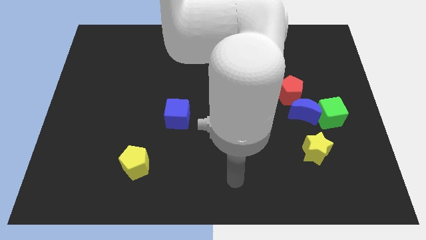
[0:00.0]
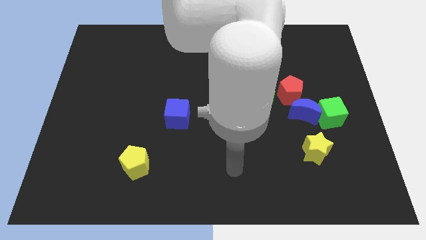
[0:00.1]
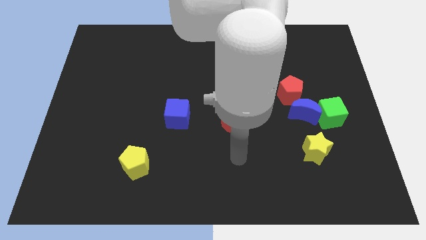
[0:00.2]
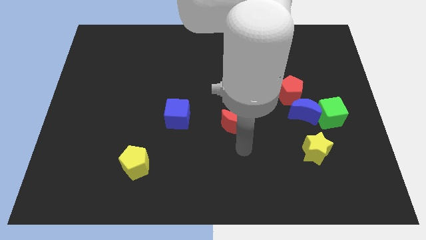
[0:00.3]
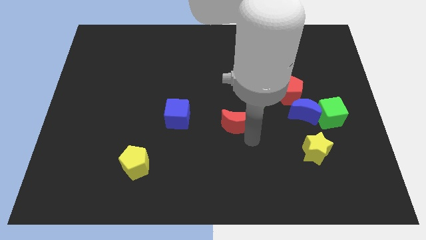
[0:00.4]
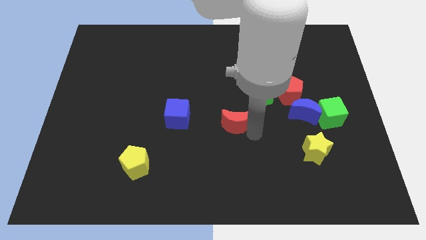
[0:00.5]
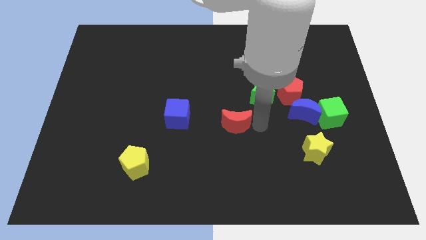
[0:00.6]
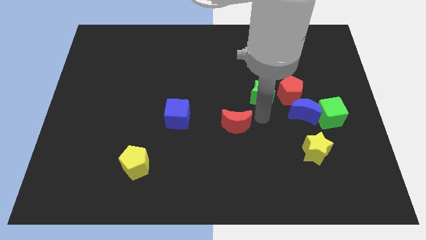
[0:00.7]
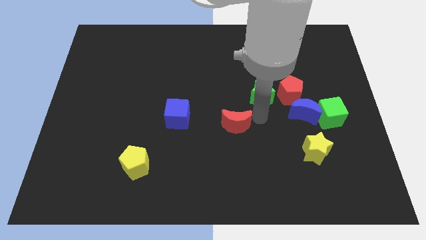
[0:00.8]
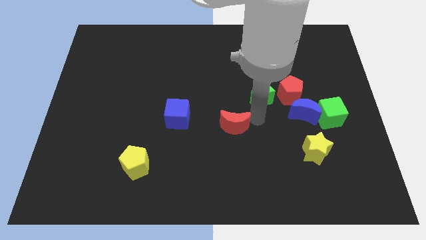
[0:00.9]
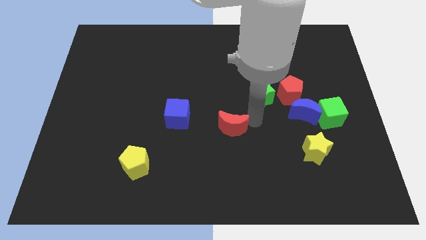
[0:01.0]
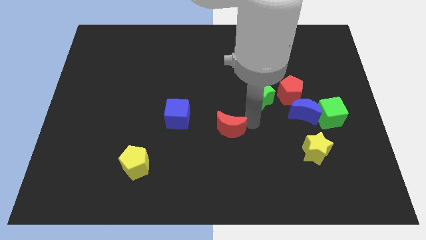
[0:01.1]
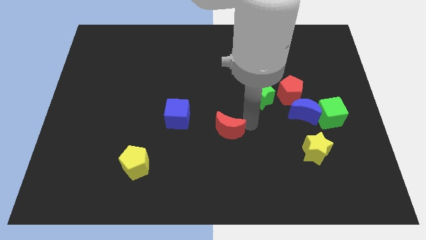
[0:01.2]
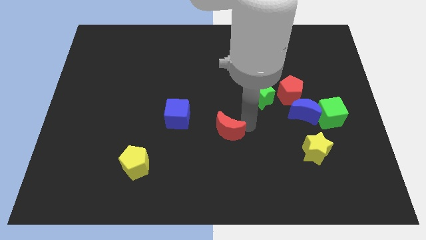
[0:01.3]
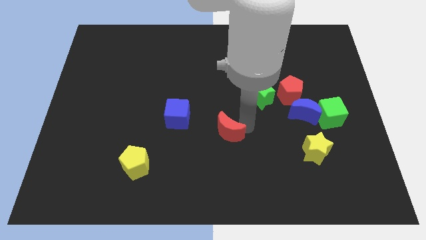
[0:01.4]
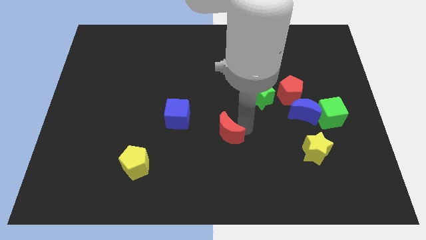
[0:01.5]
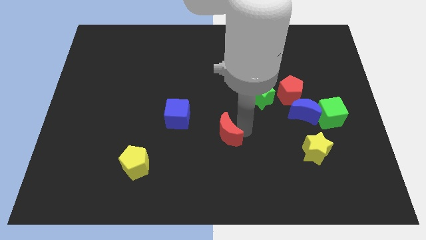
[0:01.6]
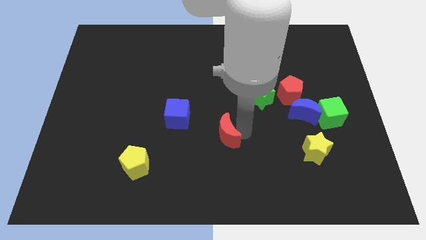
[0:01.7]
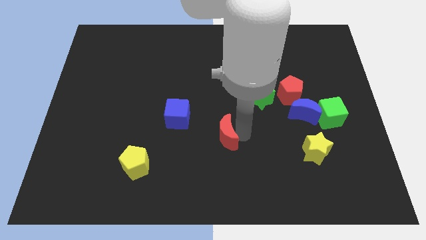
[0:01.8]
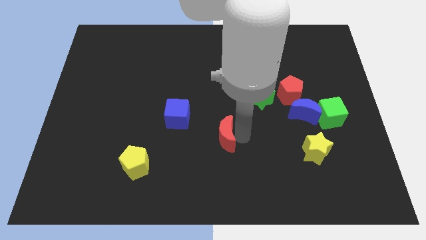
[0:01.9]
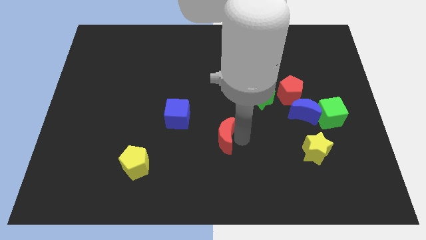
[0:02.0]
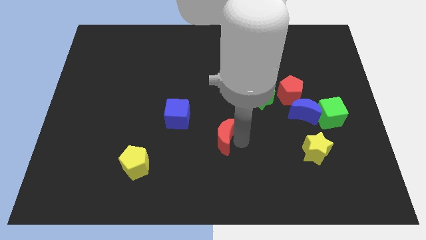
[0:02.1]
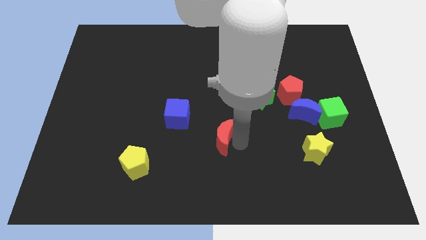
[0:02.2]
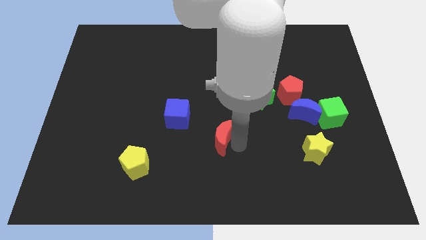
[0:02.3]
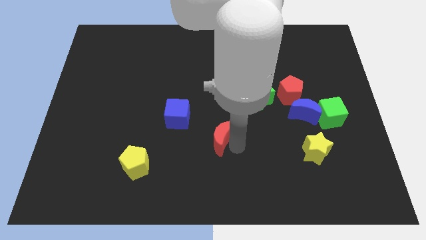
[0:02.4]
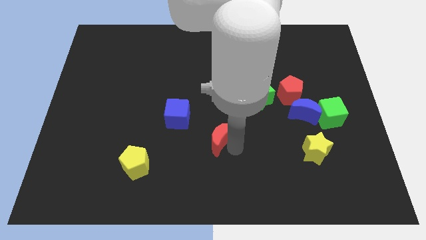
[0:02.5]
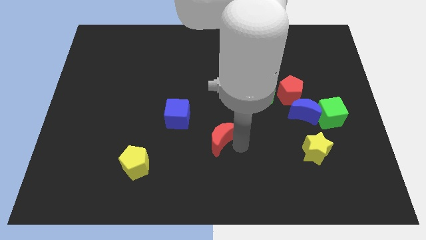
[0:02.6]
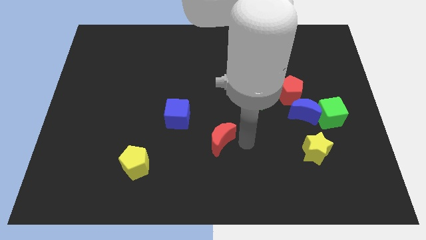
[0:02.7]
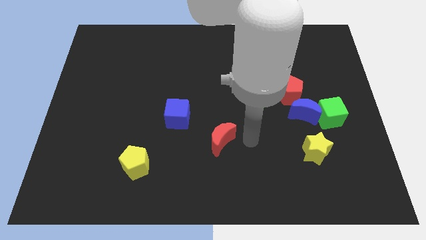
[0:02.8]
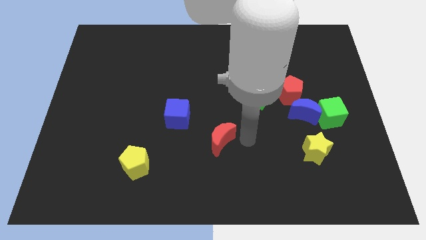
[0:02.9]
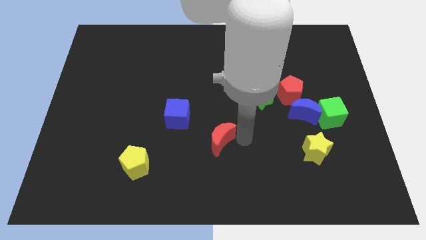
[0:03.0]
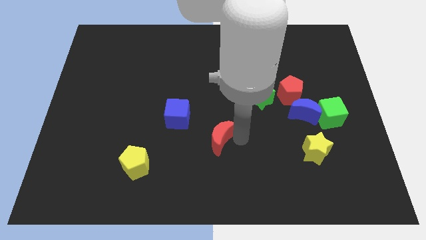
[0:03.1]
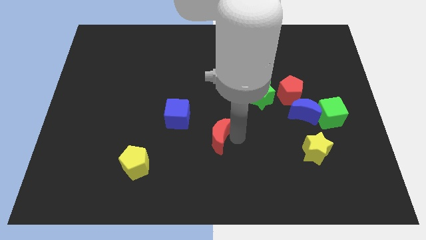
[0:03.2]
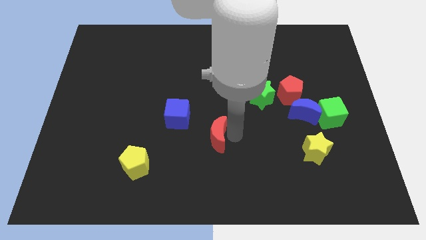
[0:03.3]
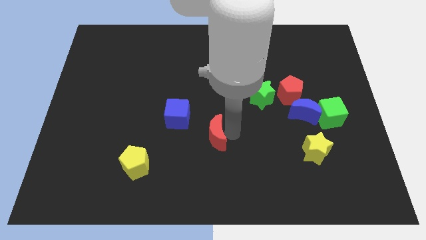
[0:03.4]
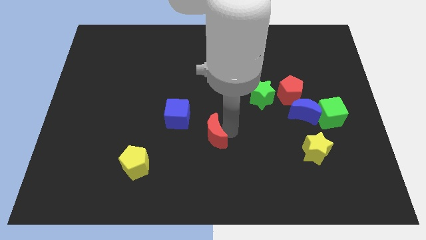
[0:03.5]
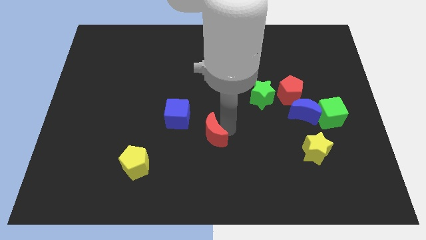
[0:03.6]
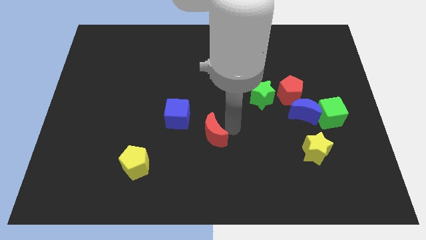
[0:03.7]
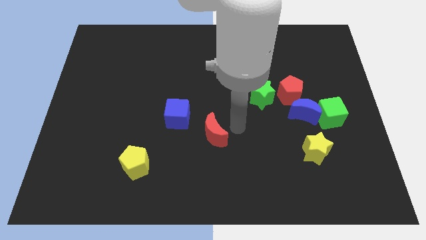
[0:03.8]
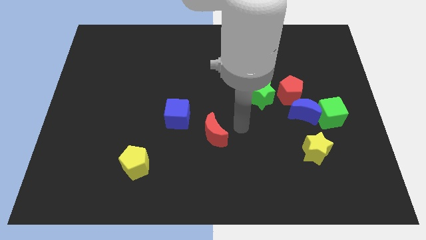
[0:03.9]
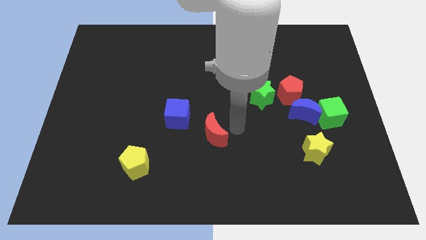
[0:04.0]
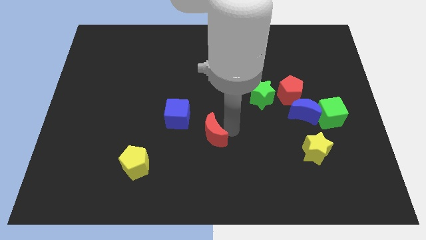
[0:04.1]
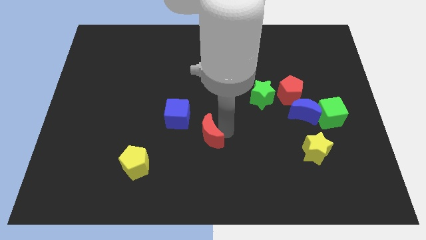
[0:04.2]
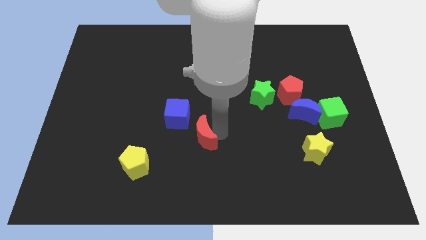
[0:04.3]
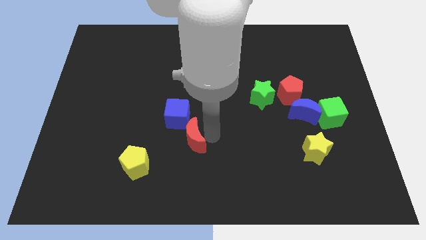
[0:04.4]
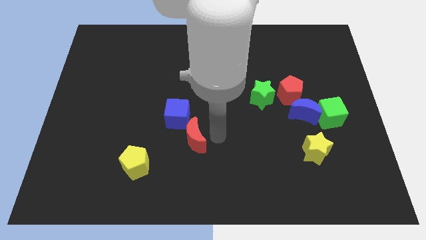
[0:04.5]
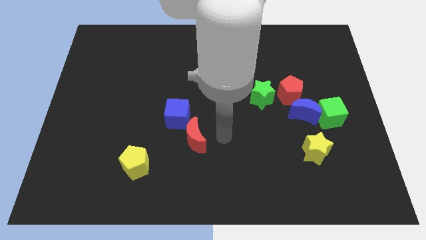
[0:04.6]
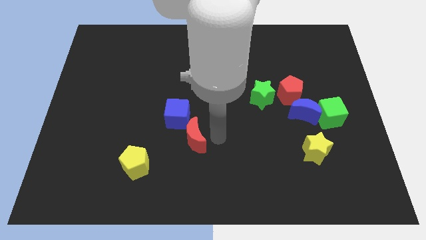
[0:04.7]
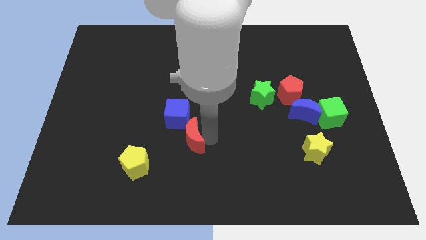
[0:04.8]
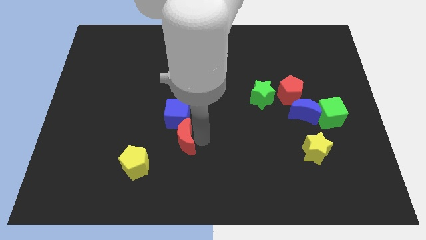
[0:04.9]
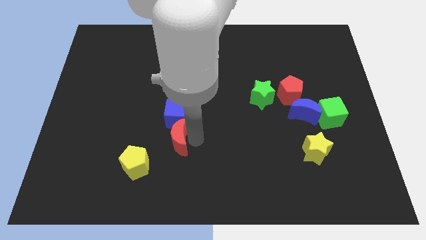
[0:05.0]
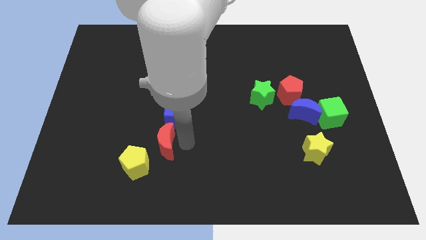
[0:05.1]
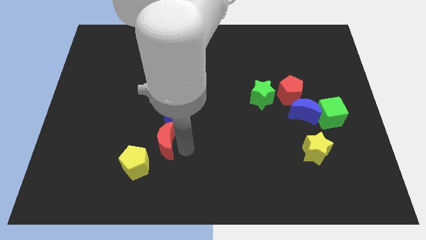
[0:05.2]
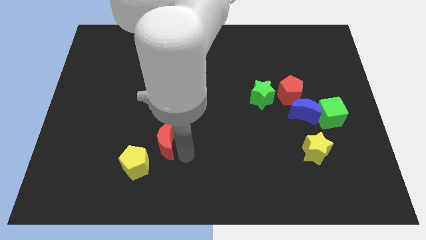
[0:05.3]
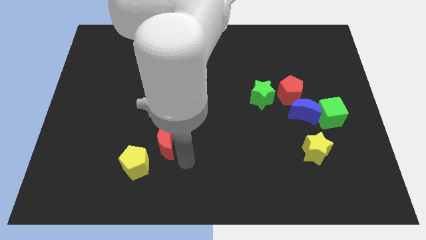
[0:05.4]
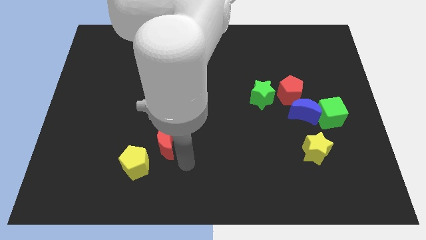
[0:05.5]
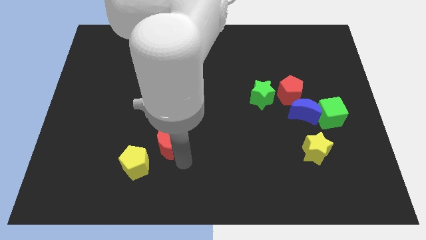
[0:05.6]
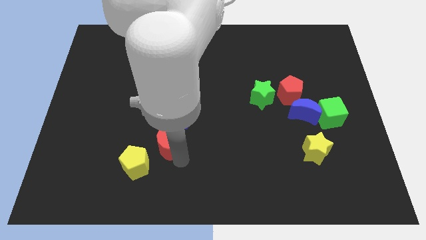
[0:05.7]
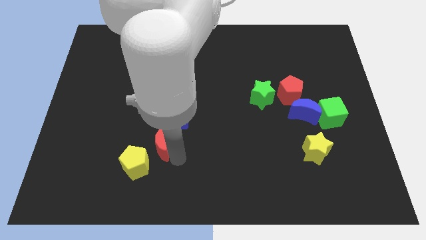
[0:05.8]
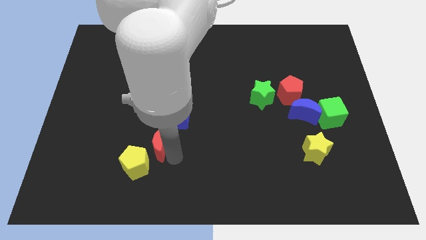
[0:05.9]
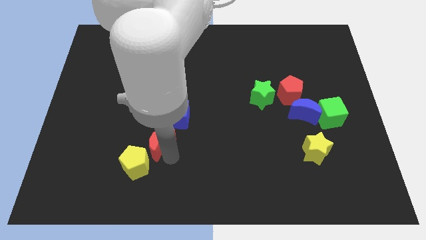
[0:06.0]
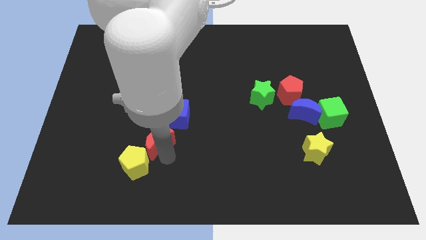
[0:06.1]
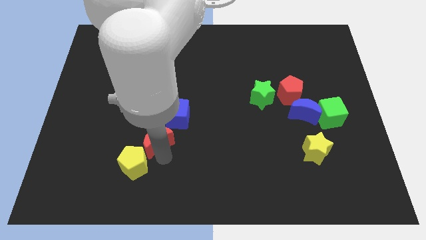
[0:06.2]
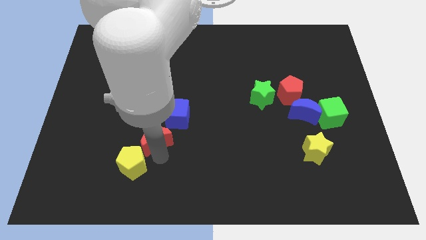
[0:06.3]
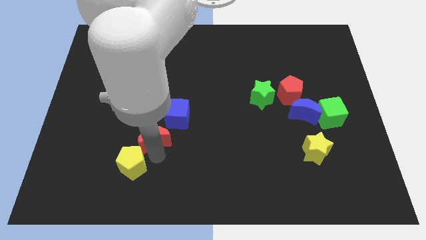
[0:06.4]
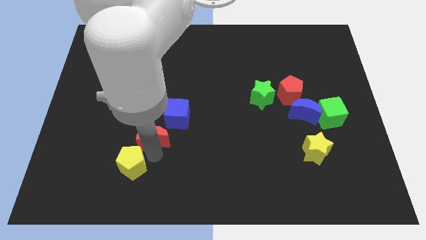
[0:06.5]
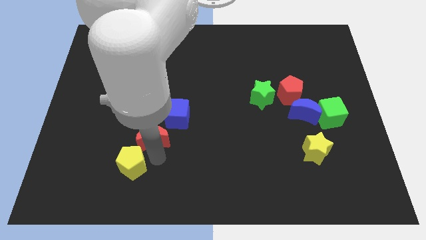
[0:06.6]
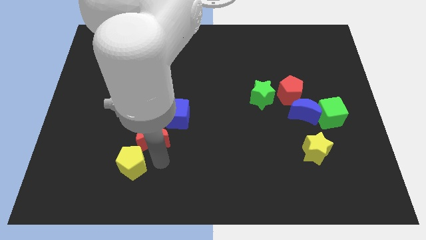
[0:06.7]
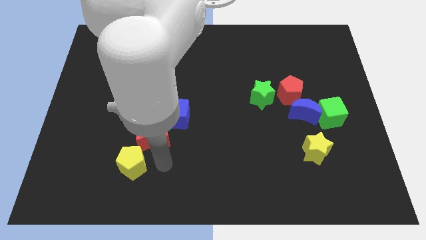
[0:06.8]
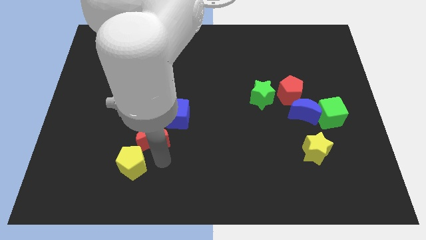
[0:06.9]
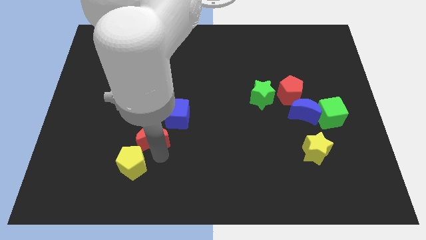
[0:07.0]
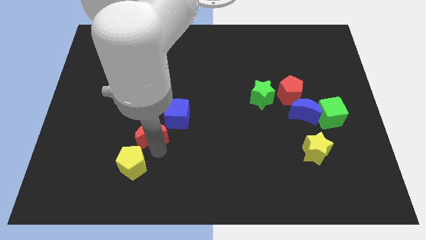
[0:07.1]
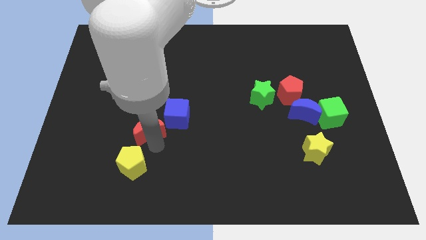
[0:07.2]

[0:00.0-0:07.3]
move the red moon to the left of the blue cube
